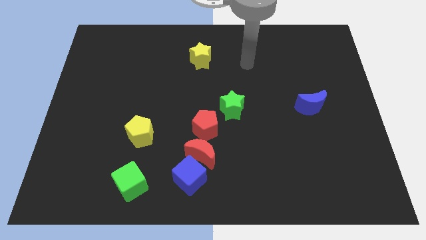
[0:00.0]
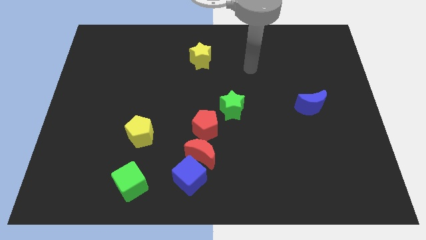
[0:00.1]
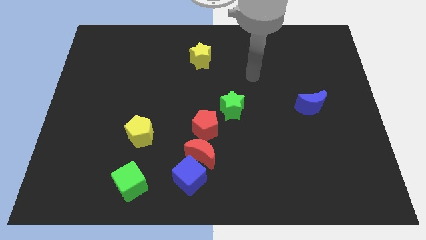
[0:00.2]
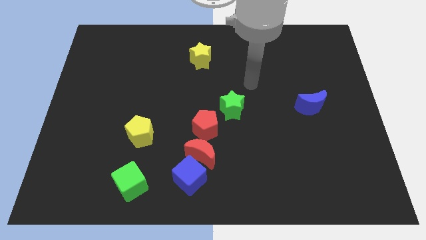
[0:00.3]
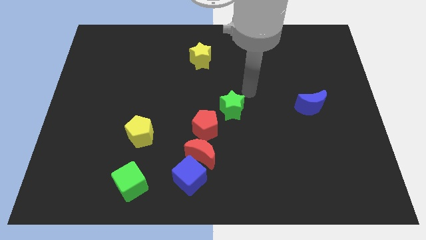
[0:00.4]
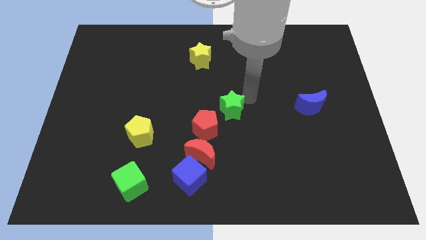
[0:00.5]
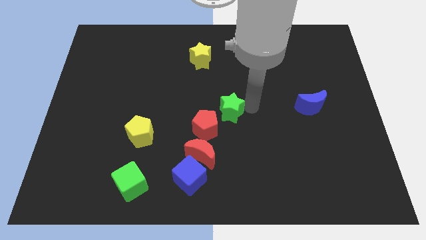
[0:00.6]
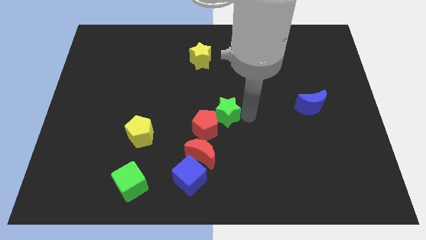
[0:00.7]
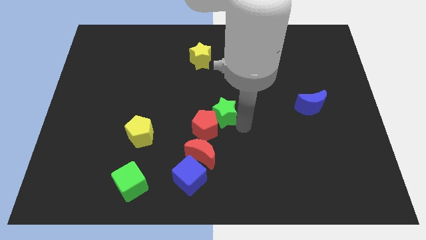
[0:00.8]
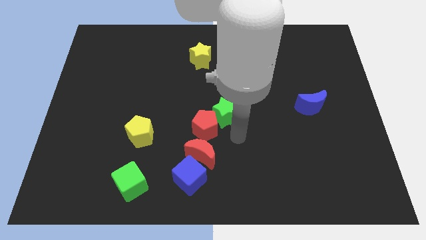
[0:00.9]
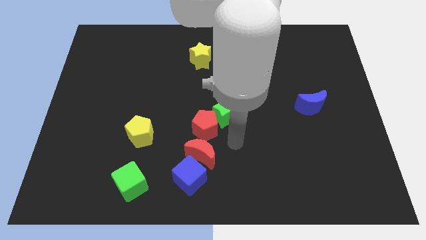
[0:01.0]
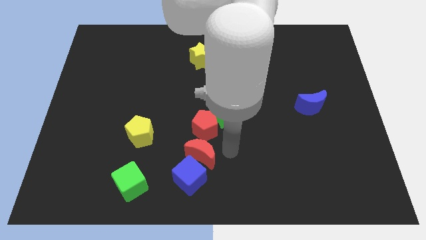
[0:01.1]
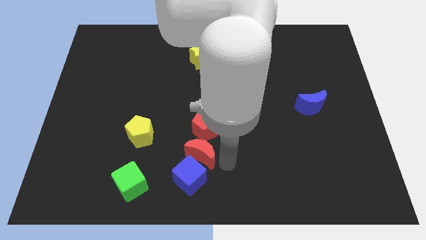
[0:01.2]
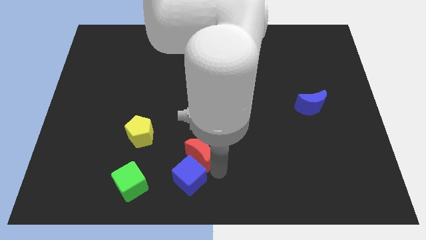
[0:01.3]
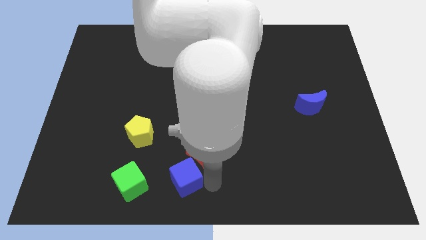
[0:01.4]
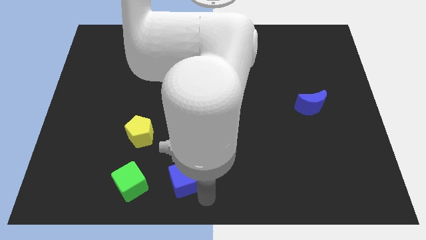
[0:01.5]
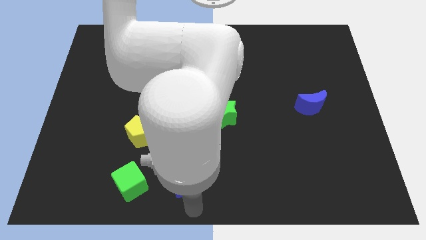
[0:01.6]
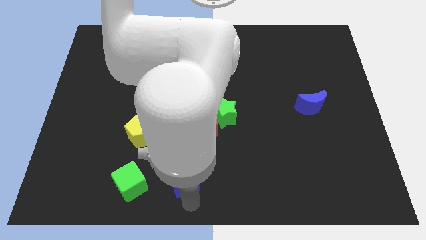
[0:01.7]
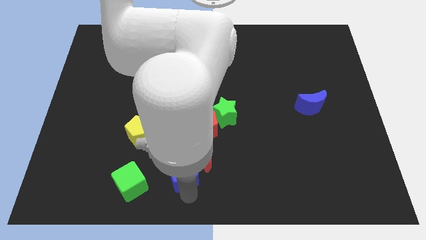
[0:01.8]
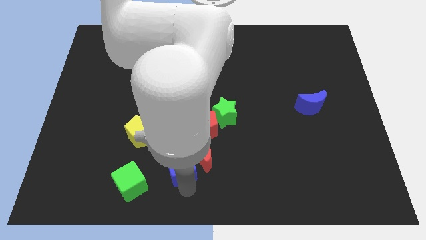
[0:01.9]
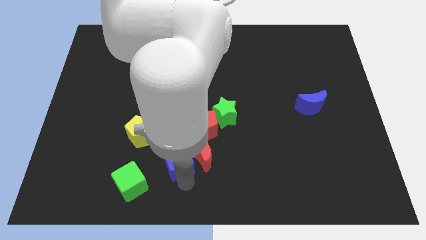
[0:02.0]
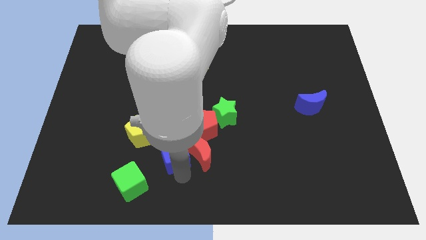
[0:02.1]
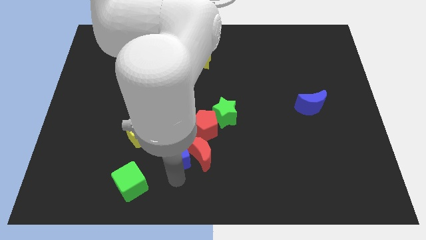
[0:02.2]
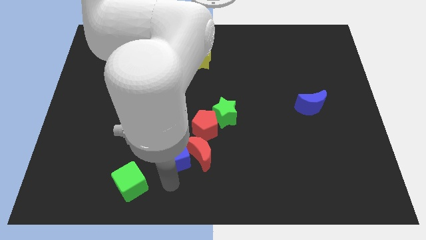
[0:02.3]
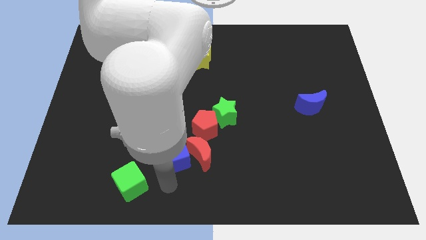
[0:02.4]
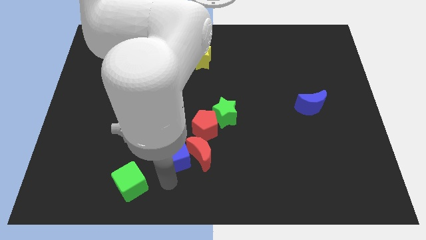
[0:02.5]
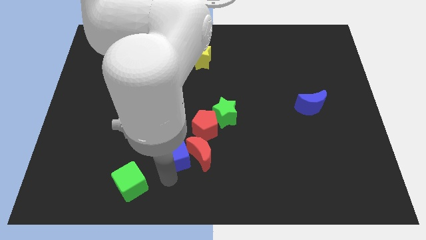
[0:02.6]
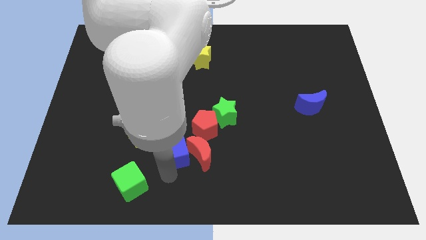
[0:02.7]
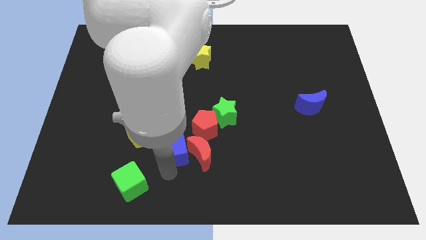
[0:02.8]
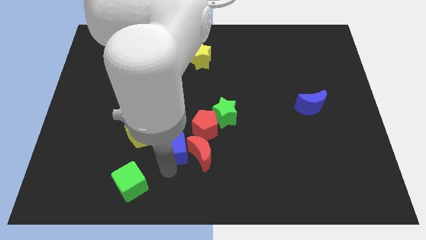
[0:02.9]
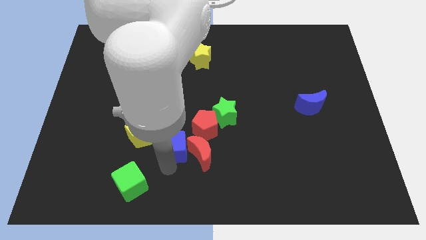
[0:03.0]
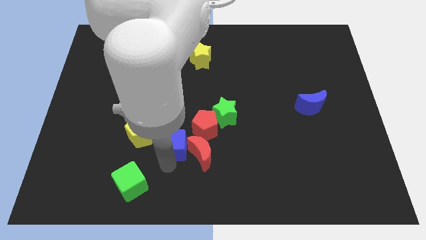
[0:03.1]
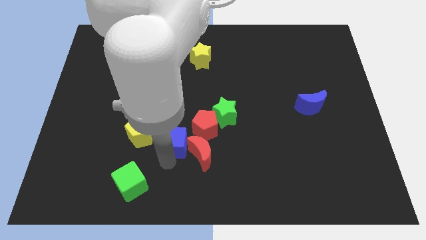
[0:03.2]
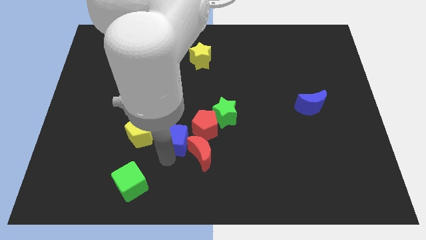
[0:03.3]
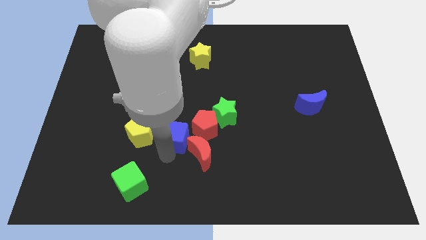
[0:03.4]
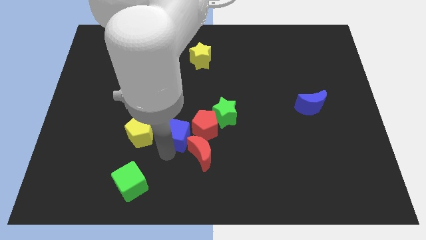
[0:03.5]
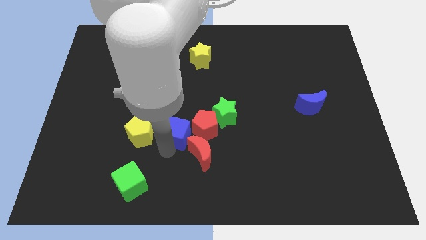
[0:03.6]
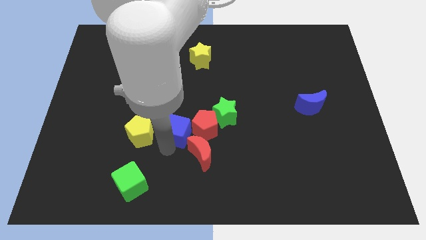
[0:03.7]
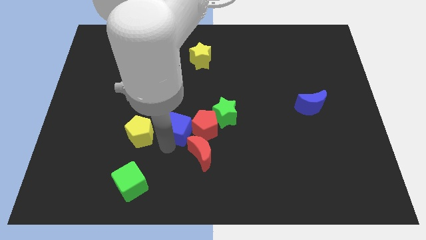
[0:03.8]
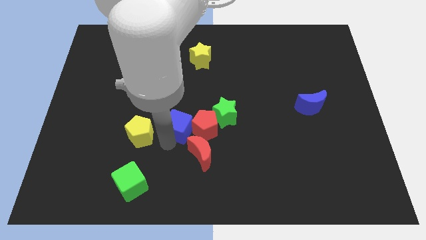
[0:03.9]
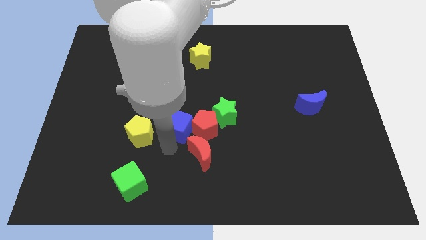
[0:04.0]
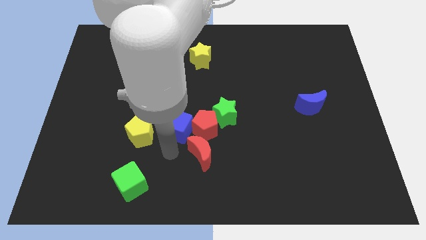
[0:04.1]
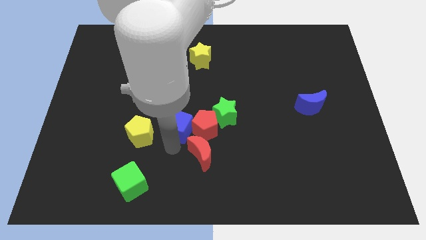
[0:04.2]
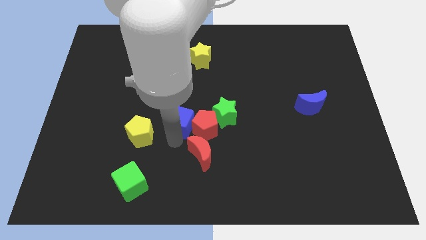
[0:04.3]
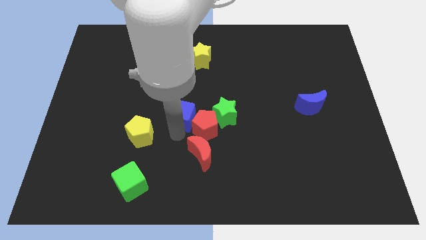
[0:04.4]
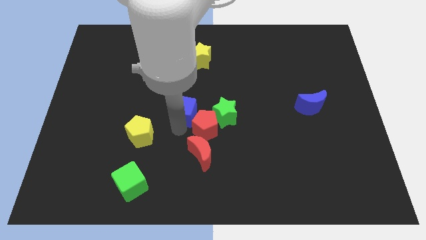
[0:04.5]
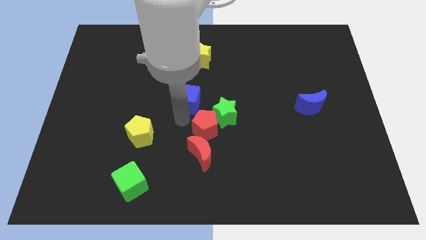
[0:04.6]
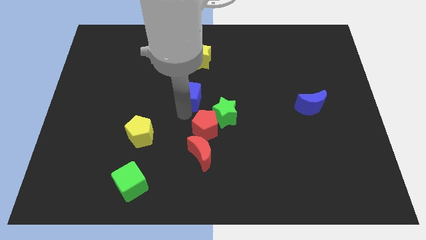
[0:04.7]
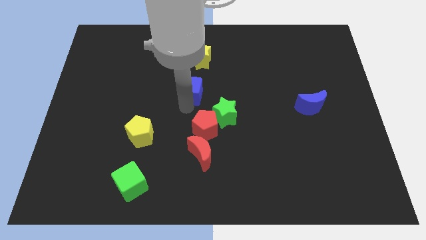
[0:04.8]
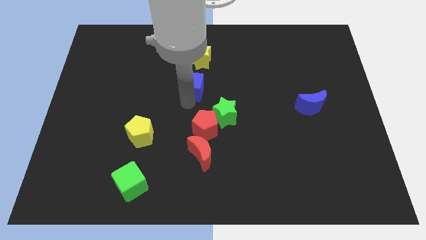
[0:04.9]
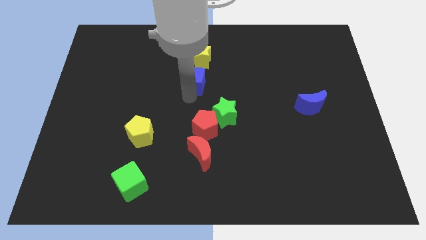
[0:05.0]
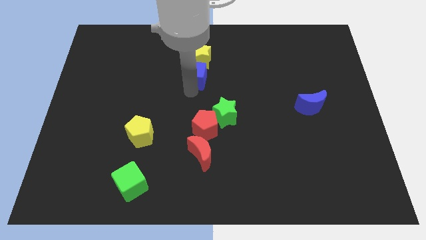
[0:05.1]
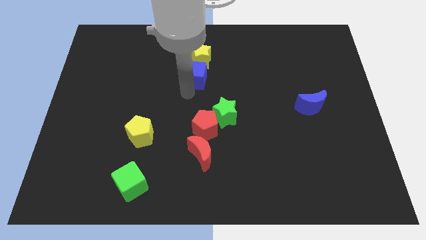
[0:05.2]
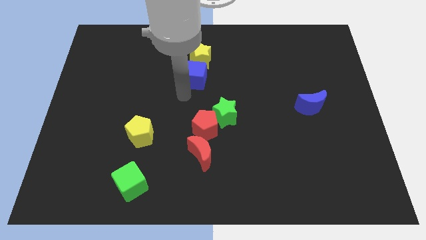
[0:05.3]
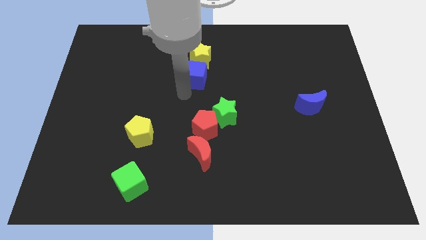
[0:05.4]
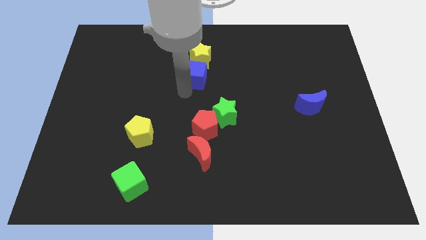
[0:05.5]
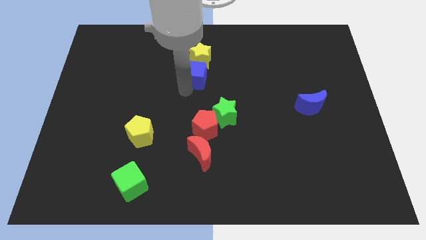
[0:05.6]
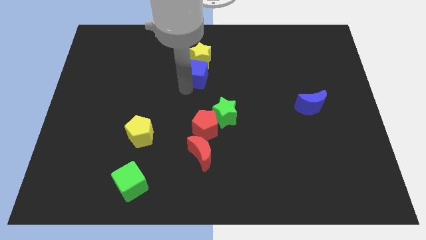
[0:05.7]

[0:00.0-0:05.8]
push the blue cube to the yellow star

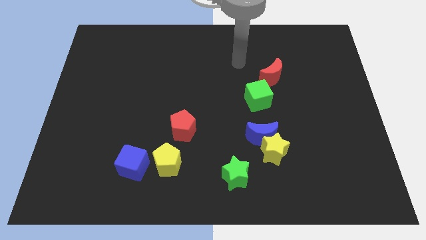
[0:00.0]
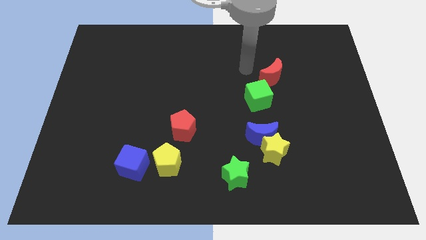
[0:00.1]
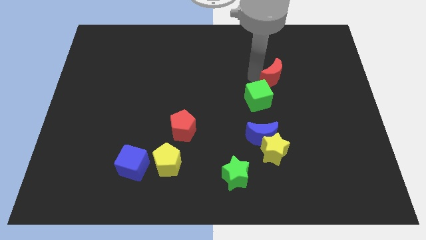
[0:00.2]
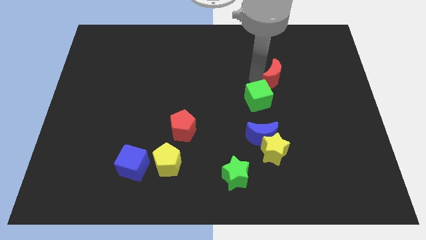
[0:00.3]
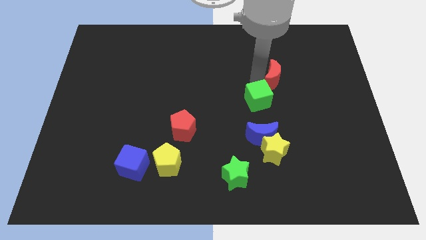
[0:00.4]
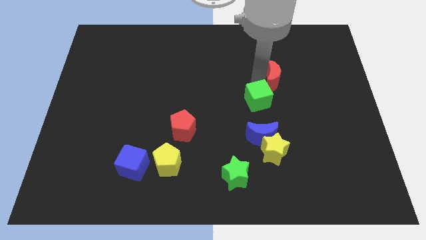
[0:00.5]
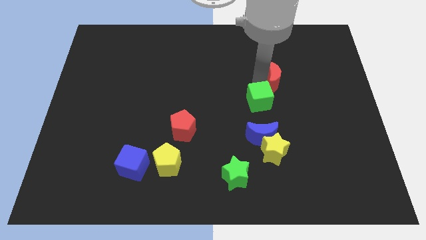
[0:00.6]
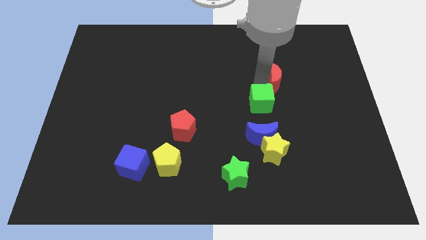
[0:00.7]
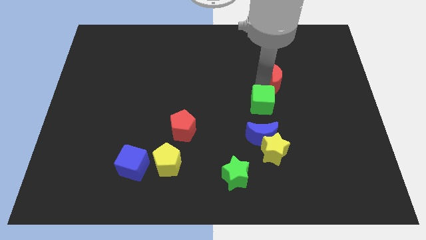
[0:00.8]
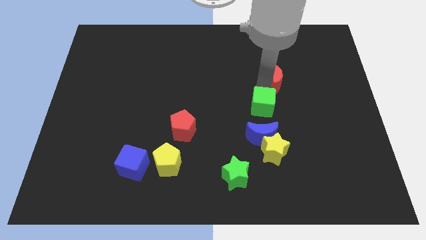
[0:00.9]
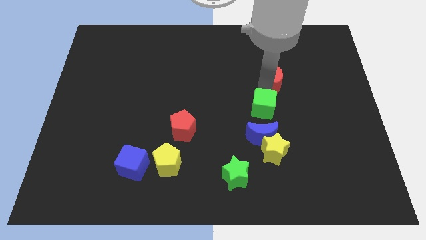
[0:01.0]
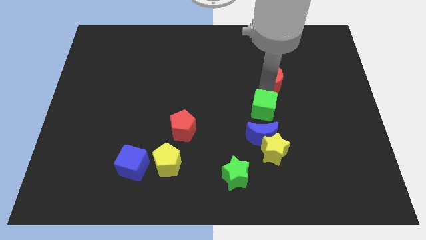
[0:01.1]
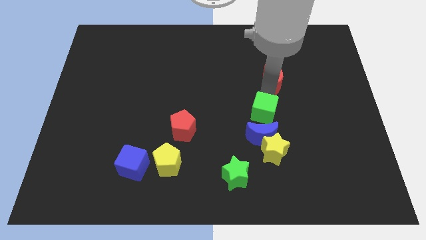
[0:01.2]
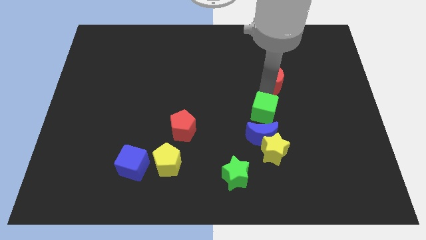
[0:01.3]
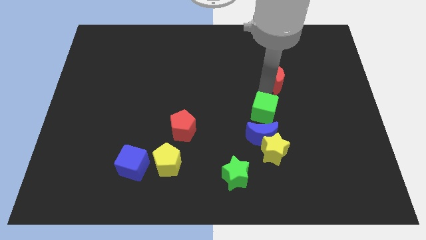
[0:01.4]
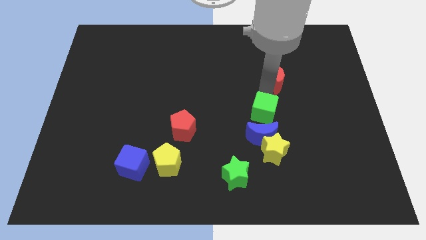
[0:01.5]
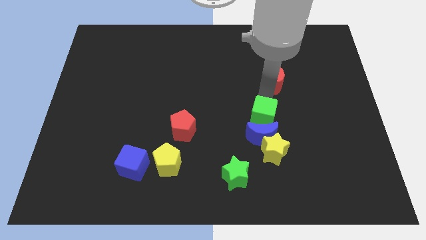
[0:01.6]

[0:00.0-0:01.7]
push the green cube next to the blue moon
